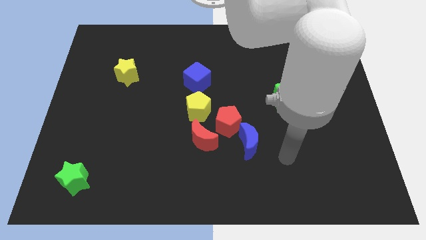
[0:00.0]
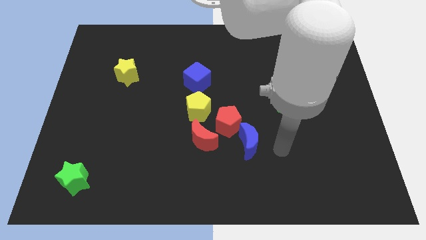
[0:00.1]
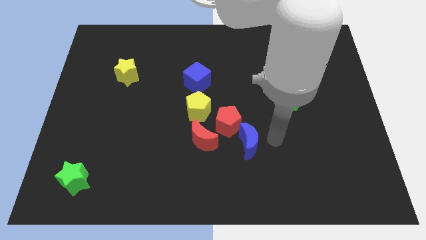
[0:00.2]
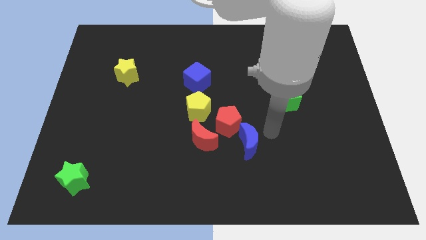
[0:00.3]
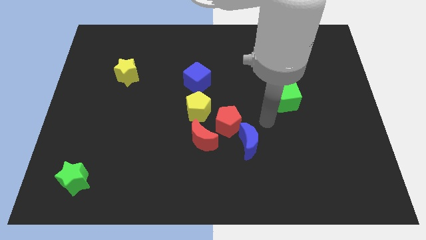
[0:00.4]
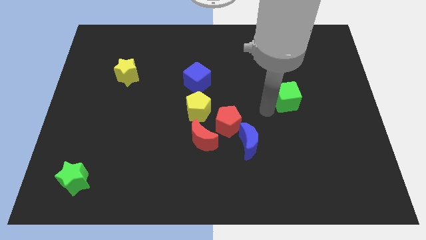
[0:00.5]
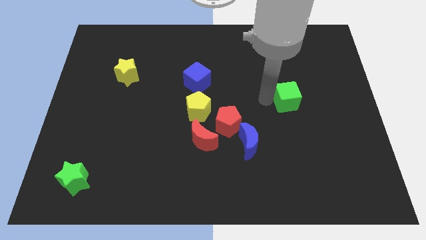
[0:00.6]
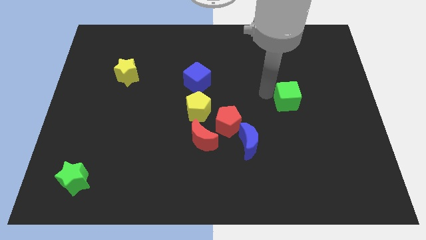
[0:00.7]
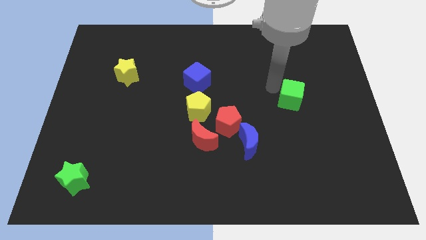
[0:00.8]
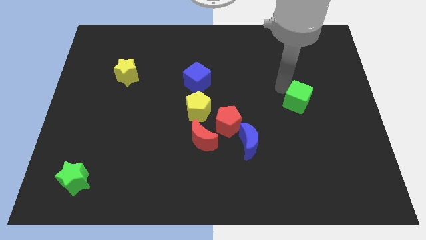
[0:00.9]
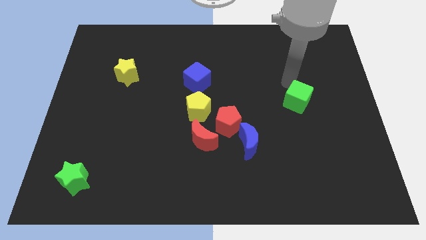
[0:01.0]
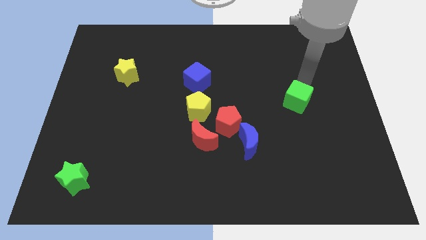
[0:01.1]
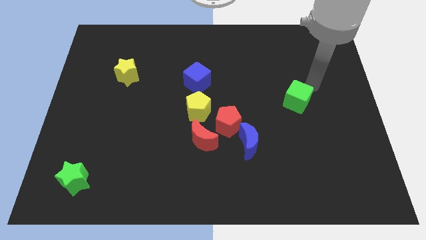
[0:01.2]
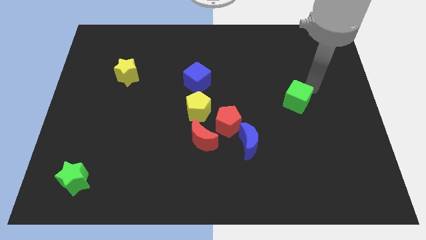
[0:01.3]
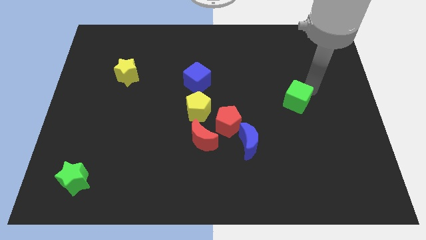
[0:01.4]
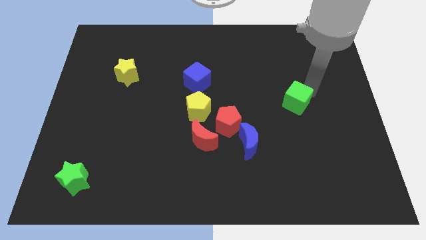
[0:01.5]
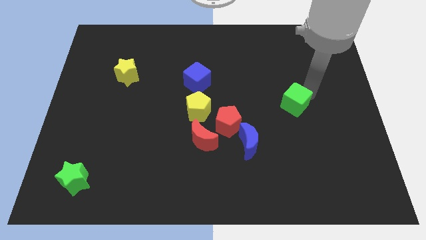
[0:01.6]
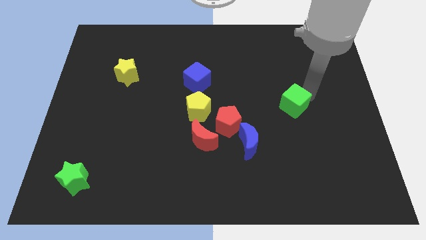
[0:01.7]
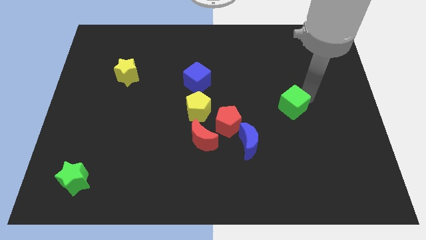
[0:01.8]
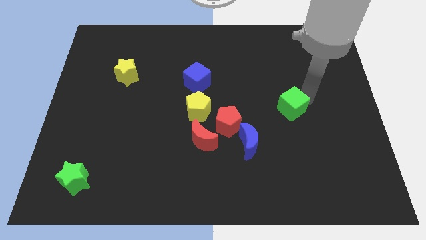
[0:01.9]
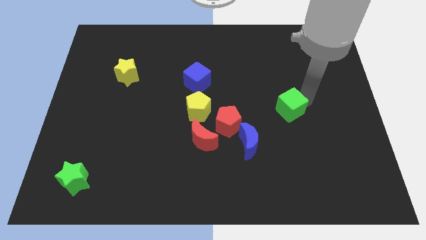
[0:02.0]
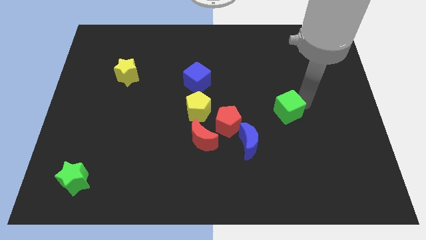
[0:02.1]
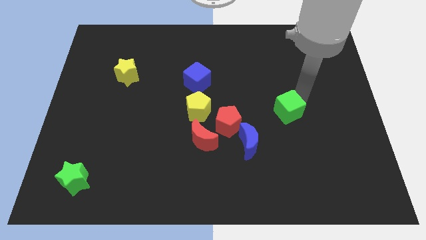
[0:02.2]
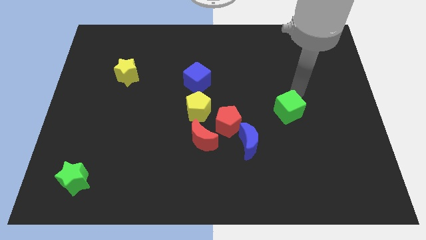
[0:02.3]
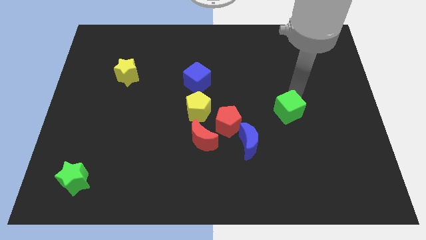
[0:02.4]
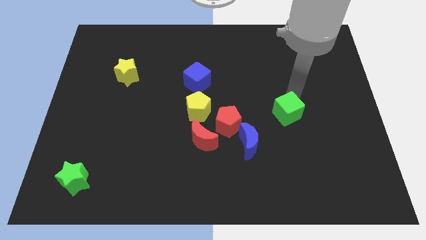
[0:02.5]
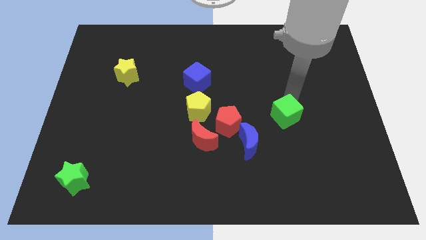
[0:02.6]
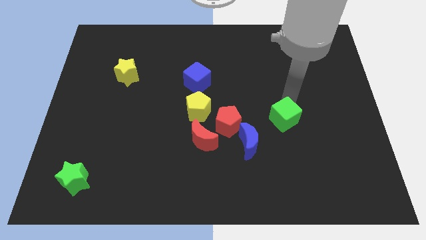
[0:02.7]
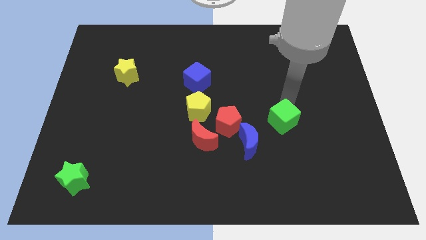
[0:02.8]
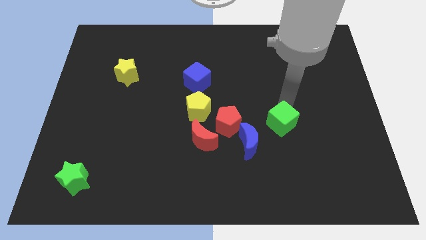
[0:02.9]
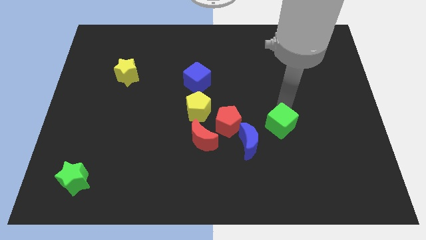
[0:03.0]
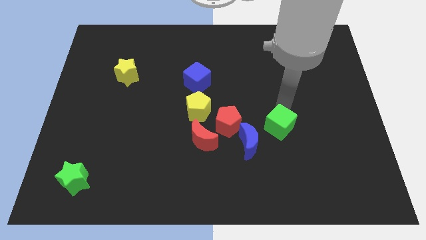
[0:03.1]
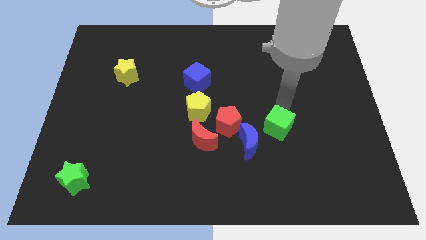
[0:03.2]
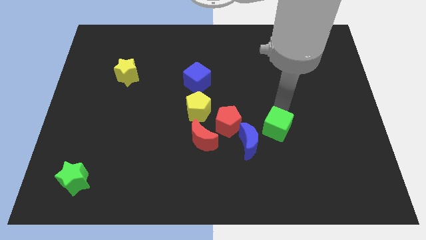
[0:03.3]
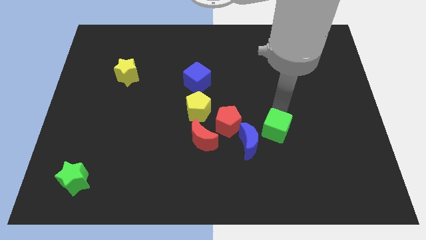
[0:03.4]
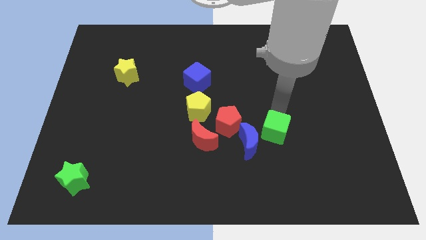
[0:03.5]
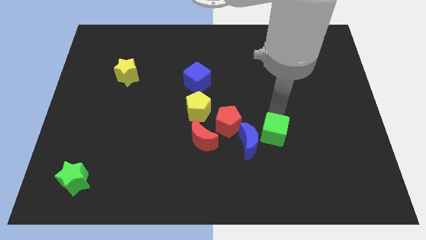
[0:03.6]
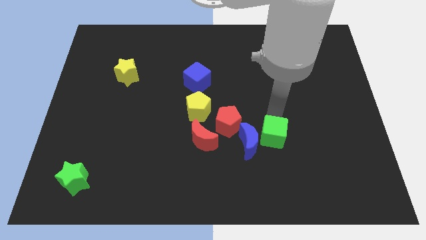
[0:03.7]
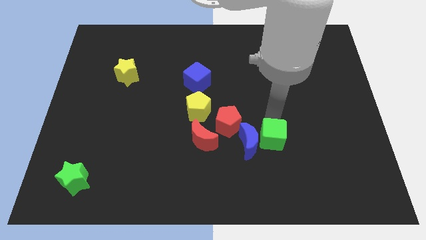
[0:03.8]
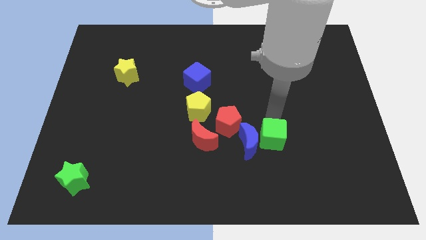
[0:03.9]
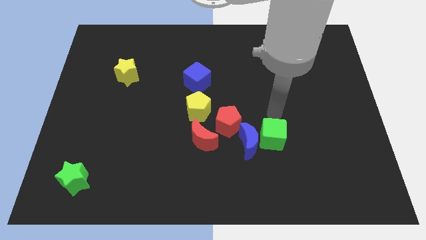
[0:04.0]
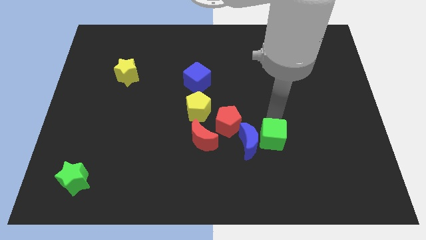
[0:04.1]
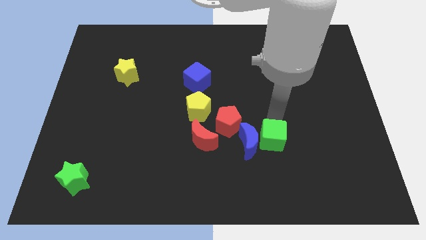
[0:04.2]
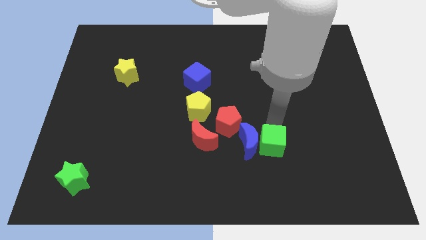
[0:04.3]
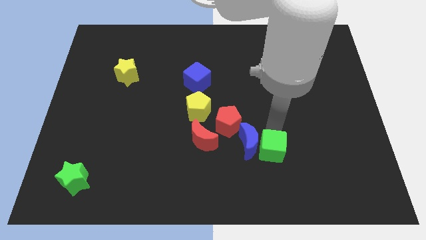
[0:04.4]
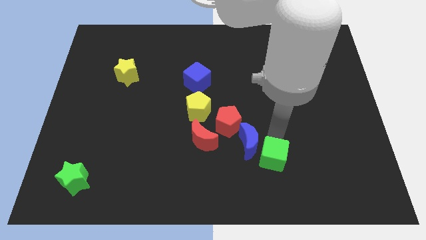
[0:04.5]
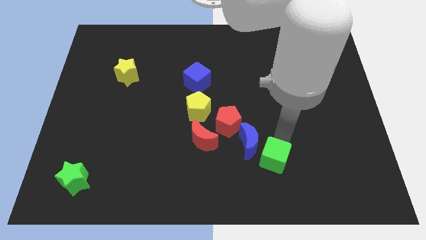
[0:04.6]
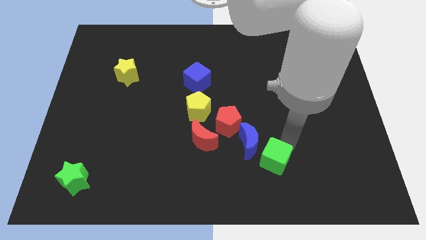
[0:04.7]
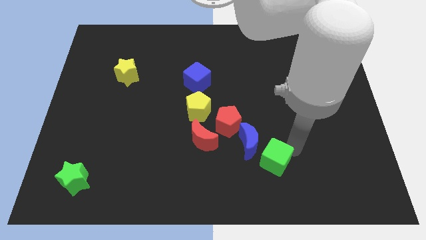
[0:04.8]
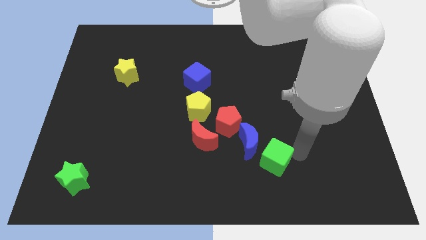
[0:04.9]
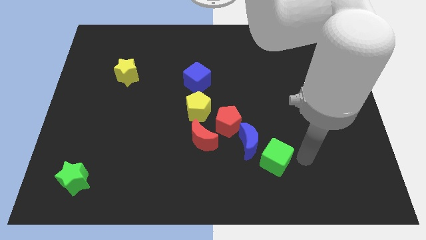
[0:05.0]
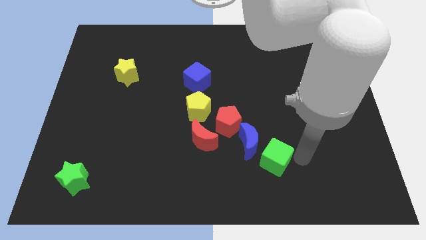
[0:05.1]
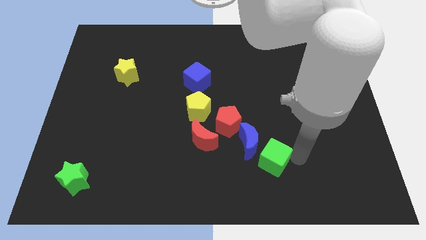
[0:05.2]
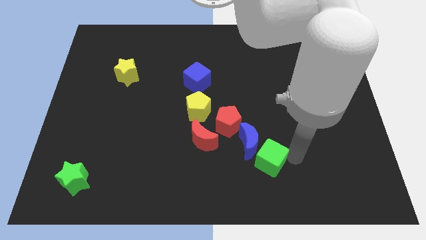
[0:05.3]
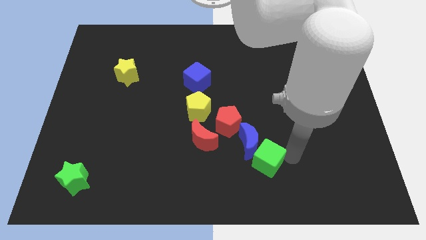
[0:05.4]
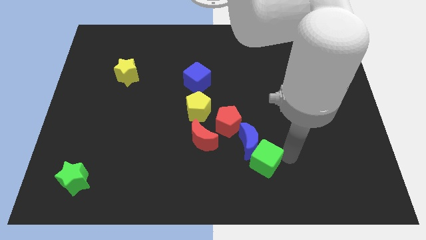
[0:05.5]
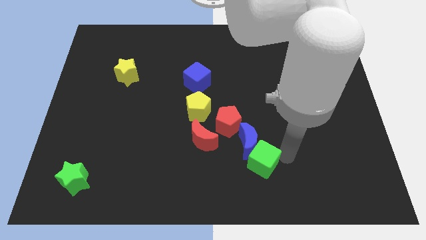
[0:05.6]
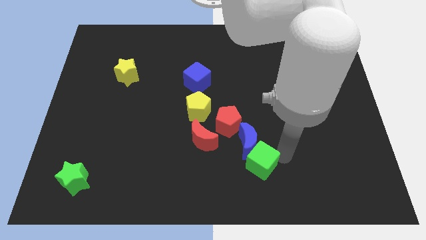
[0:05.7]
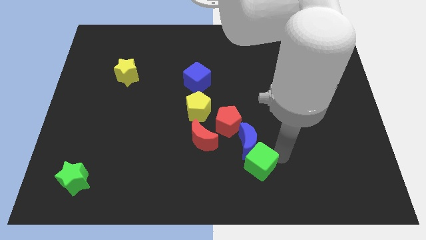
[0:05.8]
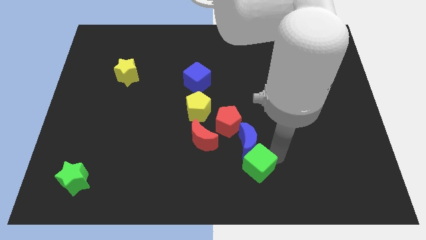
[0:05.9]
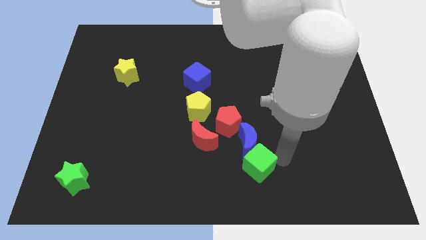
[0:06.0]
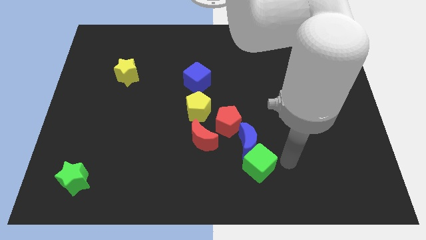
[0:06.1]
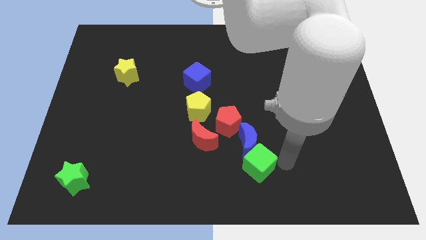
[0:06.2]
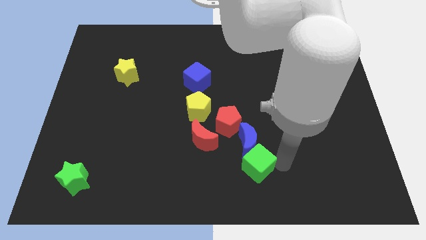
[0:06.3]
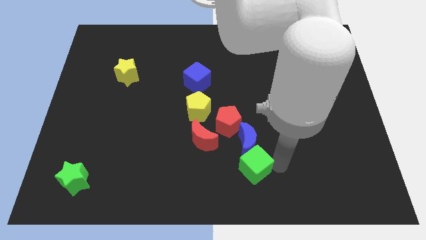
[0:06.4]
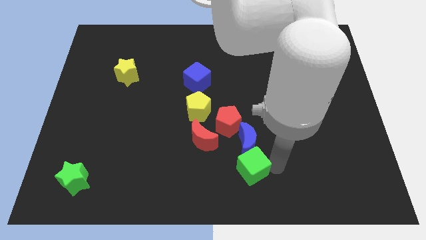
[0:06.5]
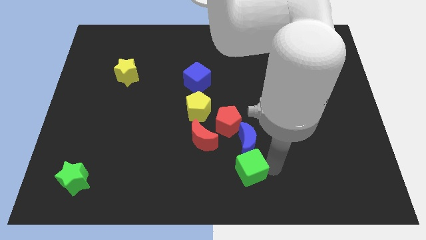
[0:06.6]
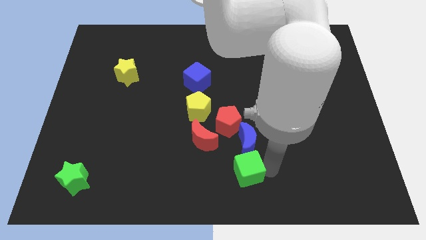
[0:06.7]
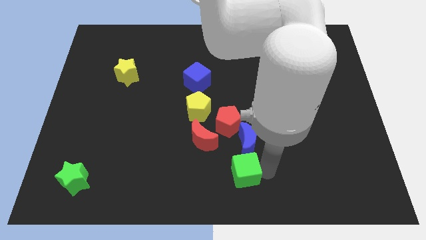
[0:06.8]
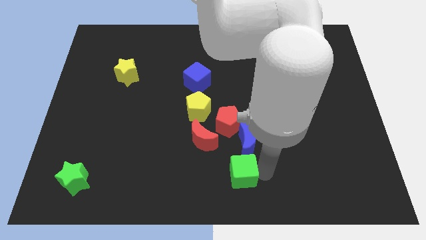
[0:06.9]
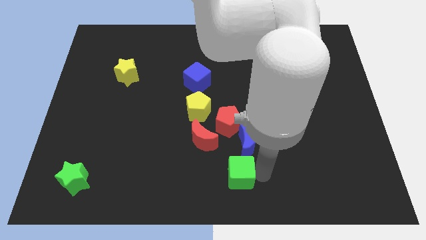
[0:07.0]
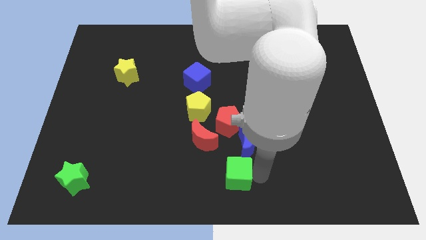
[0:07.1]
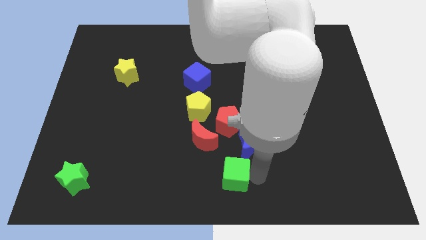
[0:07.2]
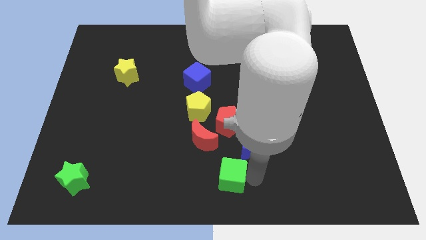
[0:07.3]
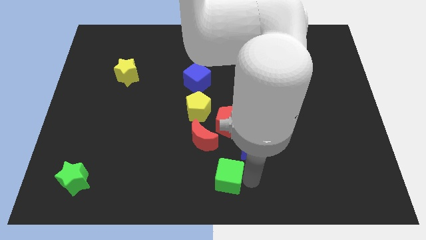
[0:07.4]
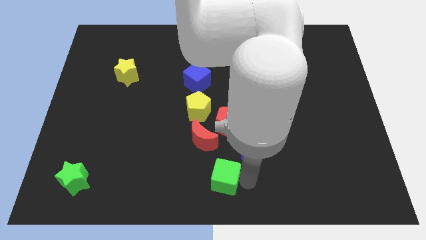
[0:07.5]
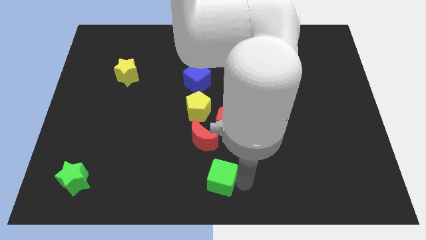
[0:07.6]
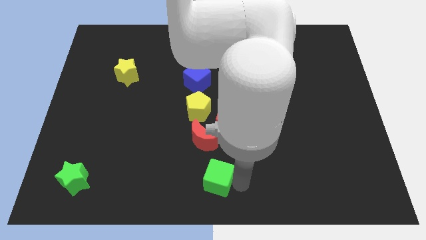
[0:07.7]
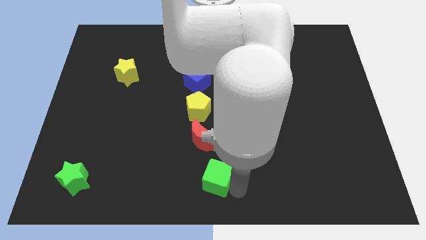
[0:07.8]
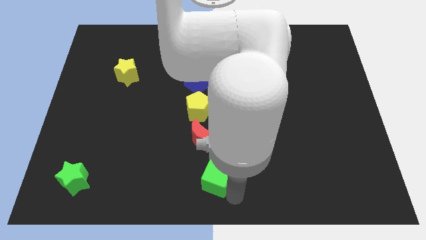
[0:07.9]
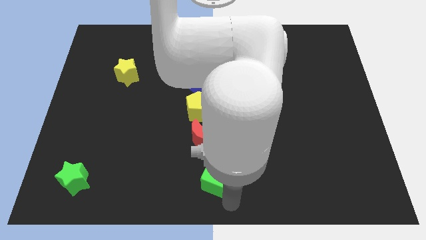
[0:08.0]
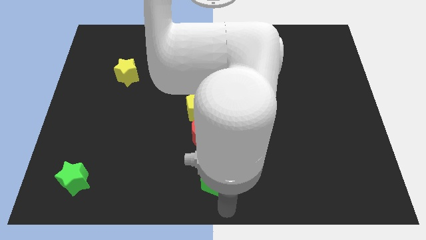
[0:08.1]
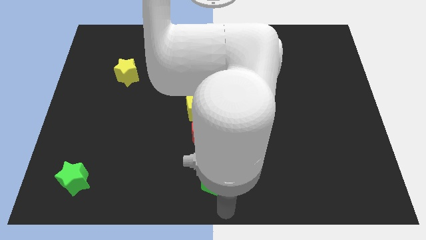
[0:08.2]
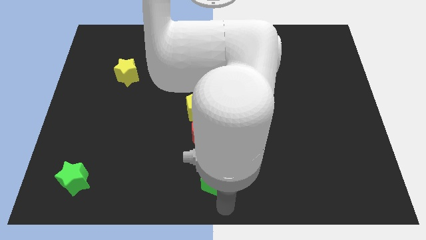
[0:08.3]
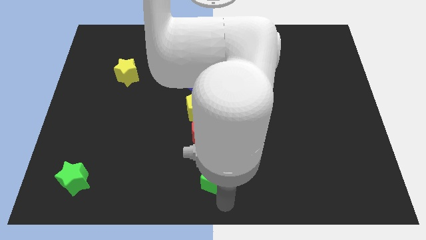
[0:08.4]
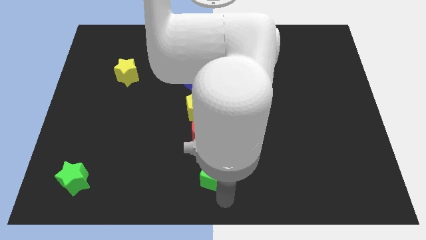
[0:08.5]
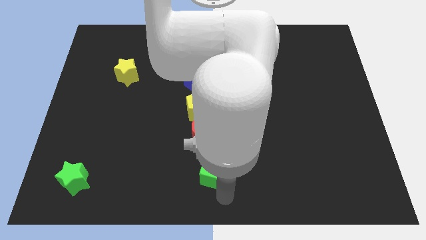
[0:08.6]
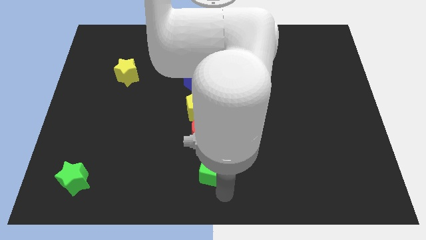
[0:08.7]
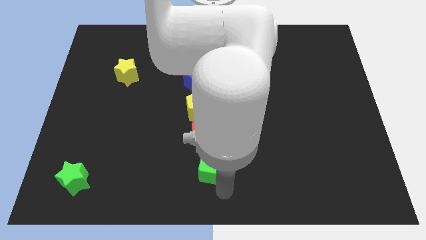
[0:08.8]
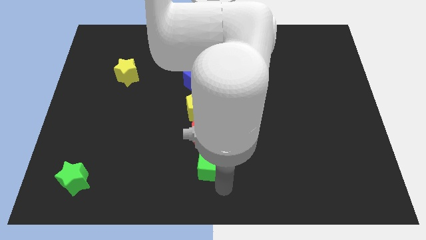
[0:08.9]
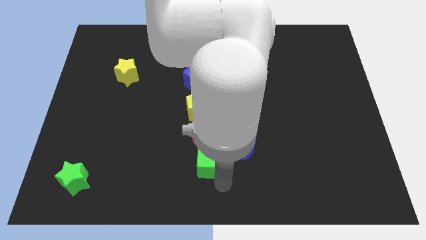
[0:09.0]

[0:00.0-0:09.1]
slide the green cube to the red moon
